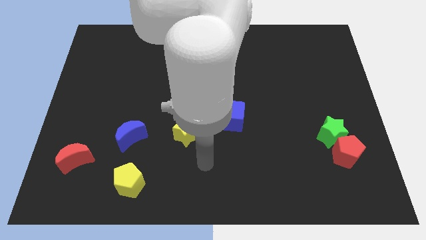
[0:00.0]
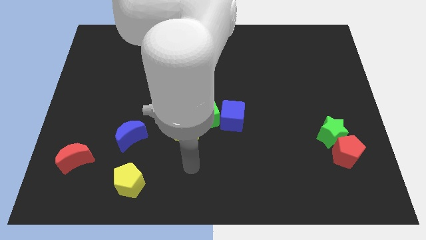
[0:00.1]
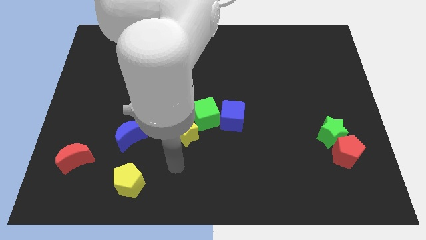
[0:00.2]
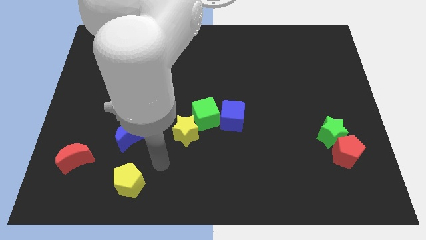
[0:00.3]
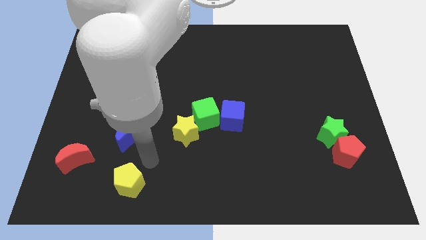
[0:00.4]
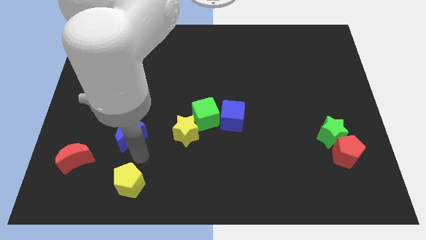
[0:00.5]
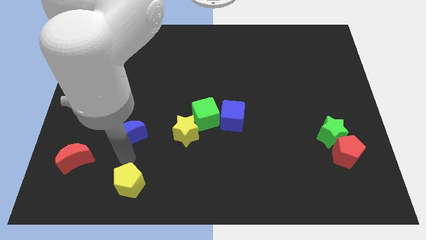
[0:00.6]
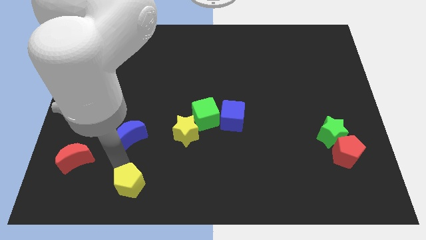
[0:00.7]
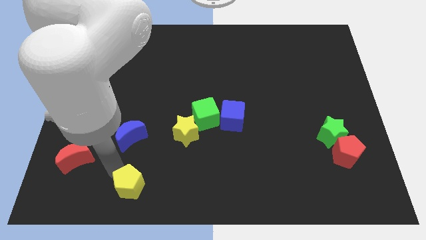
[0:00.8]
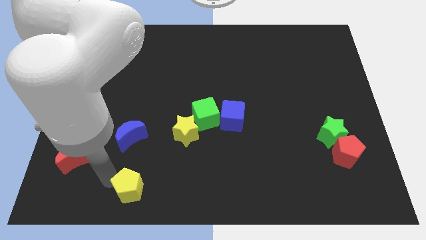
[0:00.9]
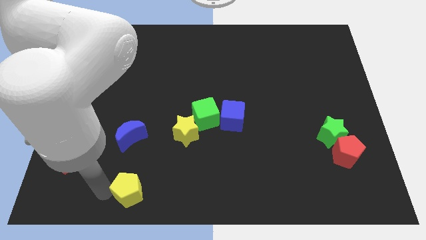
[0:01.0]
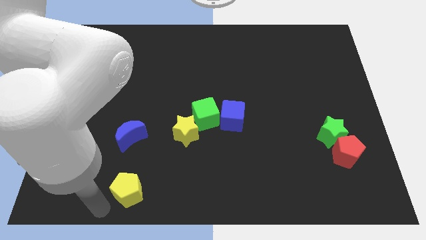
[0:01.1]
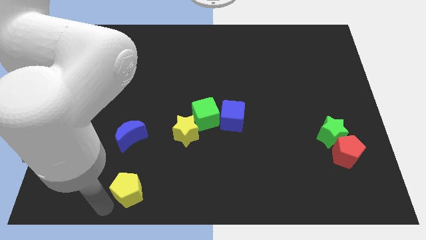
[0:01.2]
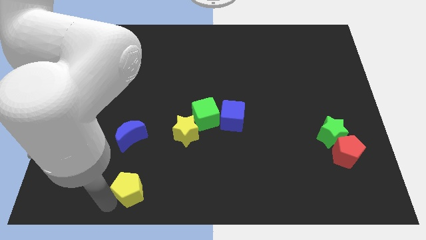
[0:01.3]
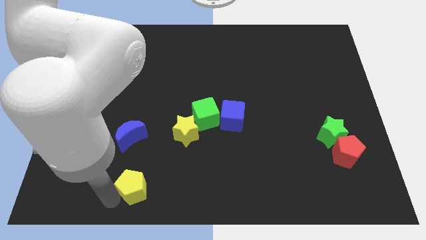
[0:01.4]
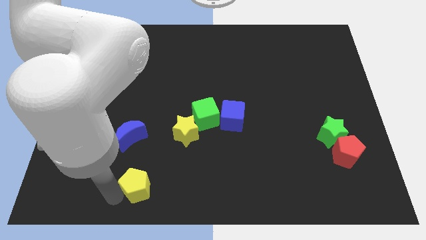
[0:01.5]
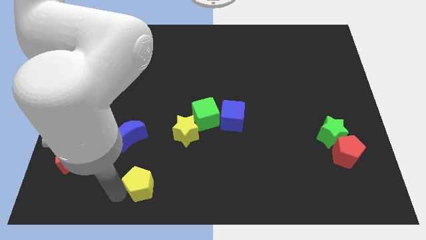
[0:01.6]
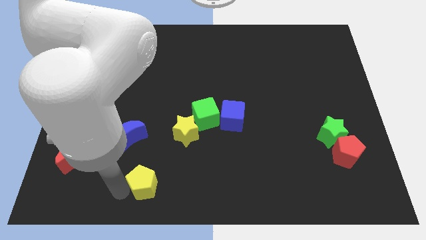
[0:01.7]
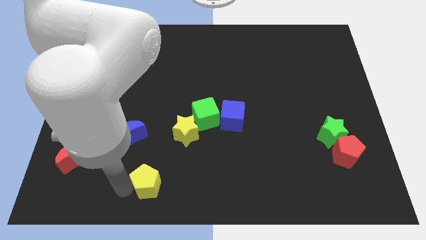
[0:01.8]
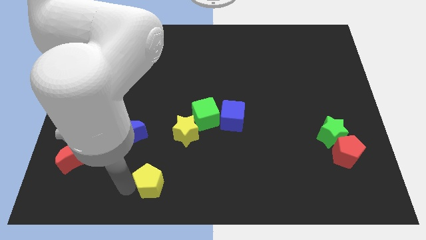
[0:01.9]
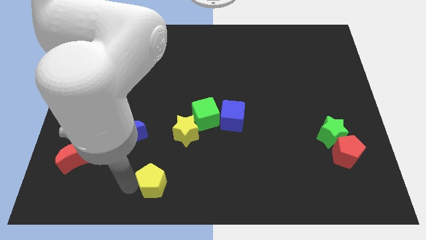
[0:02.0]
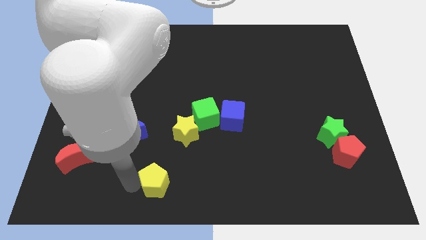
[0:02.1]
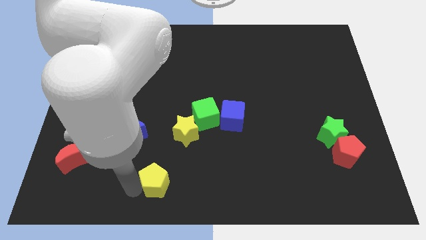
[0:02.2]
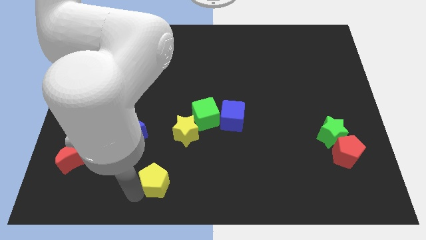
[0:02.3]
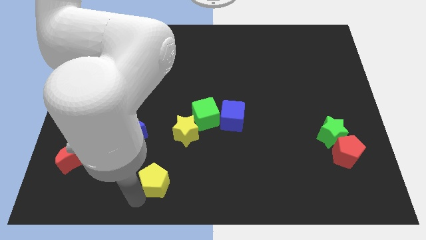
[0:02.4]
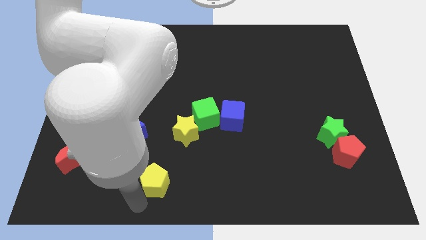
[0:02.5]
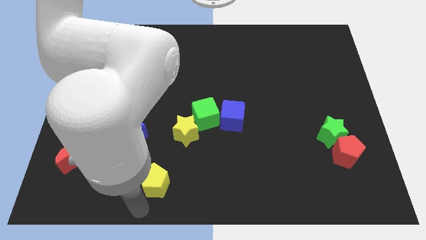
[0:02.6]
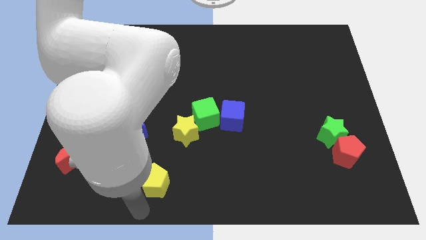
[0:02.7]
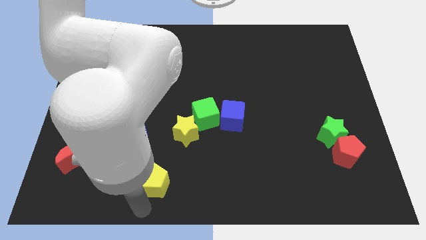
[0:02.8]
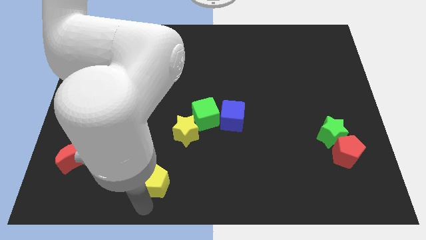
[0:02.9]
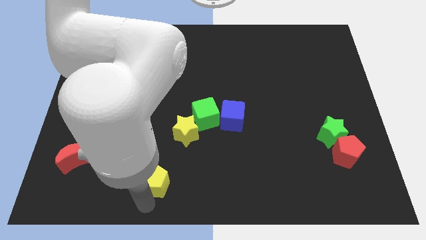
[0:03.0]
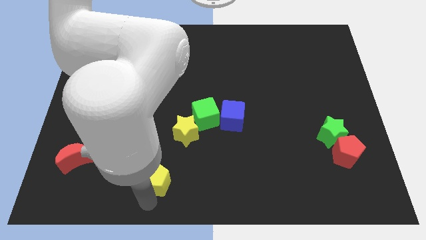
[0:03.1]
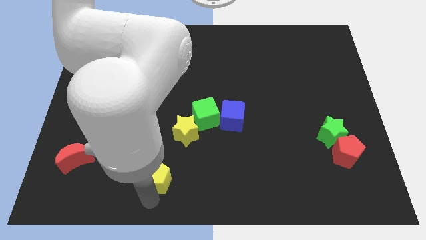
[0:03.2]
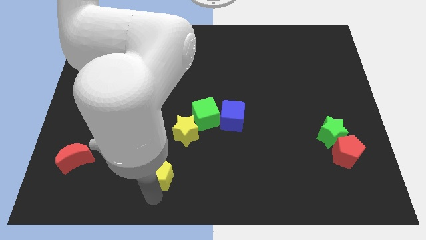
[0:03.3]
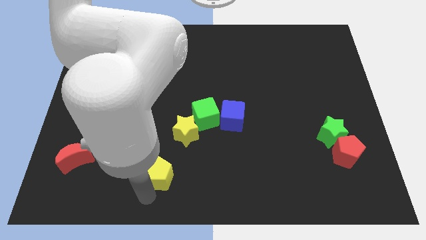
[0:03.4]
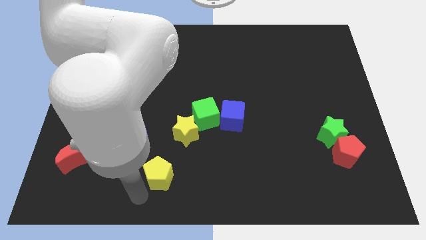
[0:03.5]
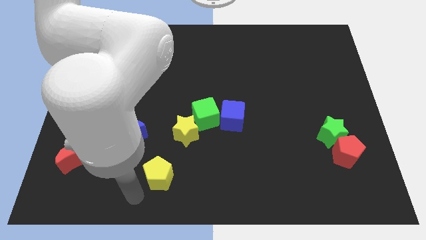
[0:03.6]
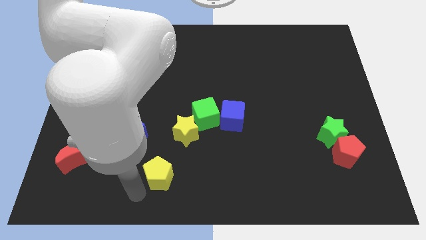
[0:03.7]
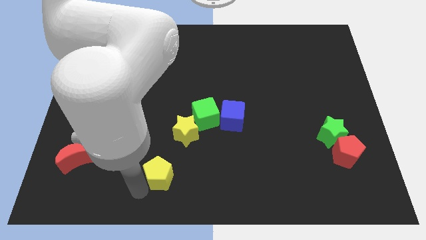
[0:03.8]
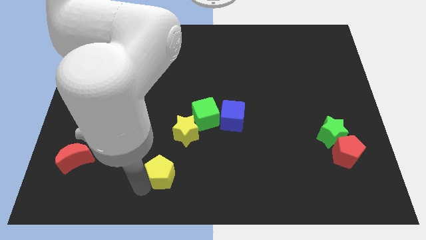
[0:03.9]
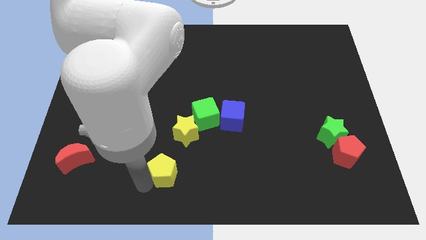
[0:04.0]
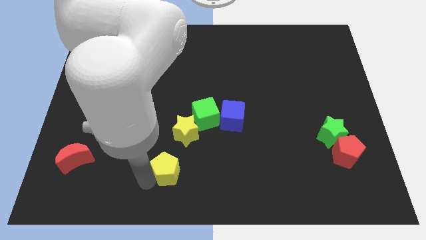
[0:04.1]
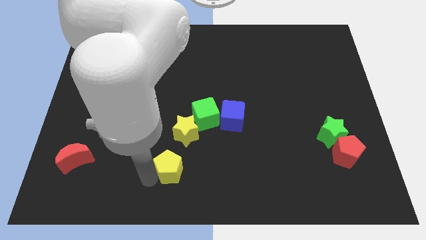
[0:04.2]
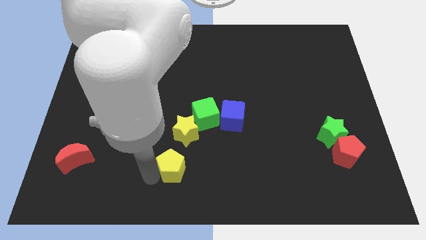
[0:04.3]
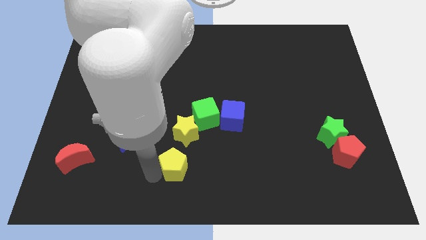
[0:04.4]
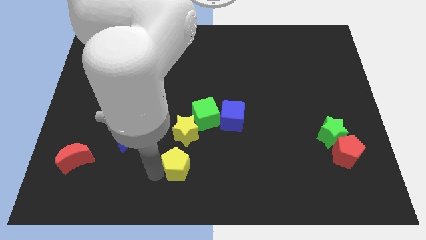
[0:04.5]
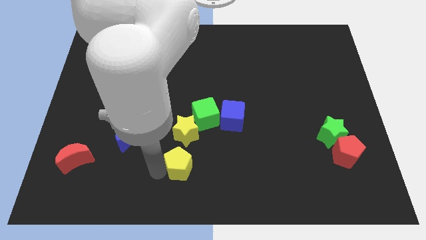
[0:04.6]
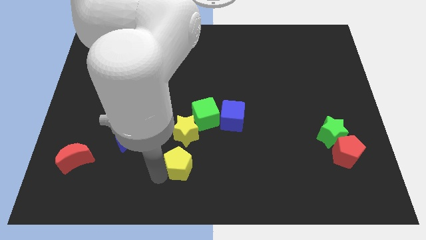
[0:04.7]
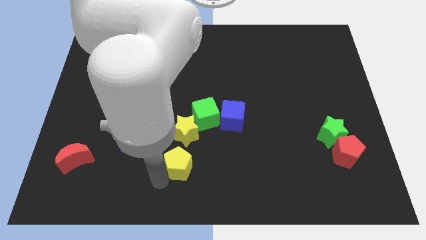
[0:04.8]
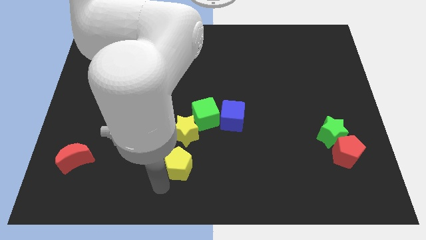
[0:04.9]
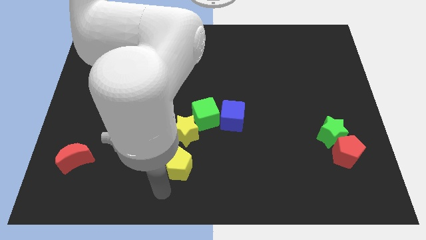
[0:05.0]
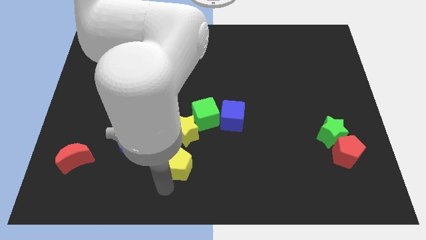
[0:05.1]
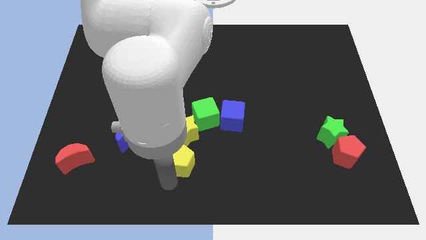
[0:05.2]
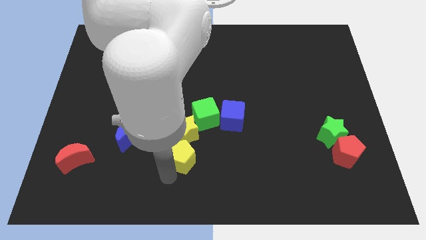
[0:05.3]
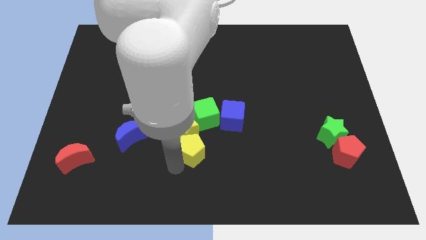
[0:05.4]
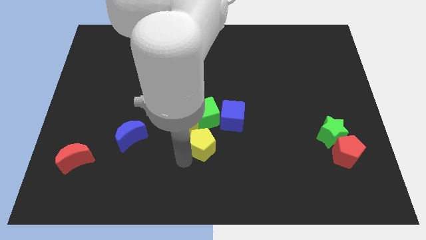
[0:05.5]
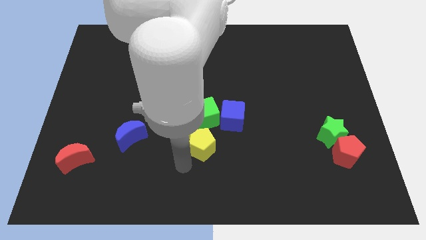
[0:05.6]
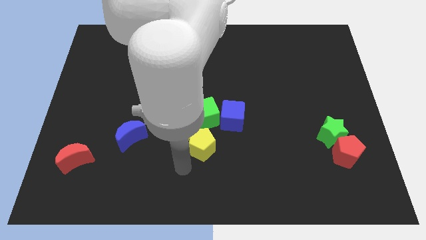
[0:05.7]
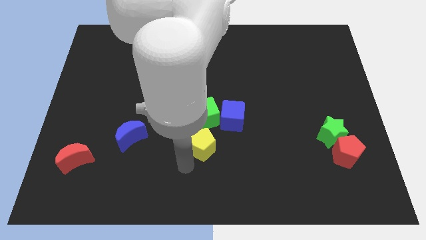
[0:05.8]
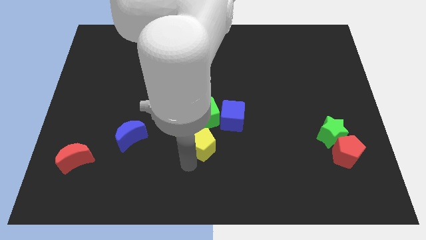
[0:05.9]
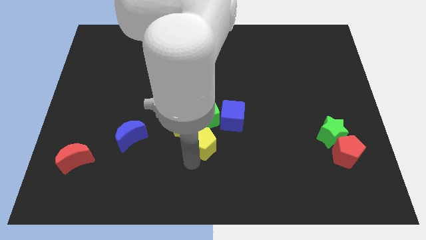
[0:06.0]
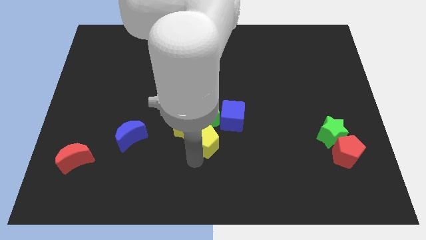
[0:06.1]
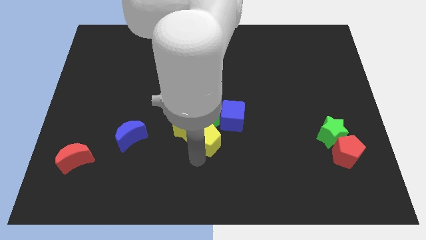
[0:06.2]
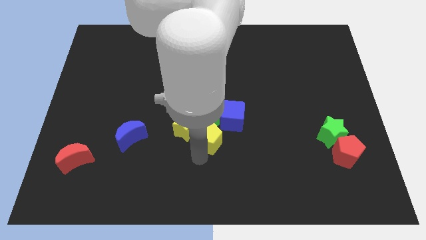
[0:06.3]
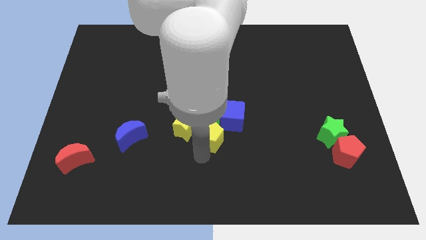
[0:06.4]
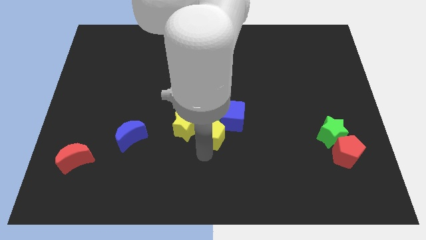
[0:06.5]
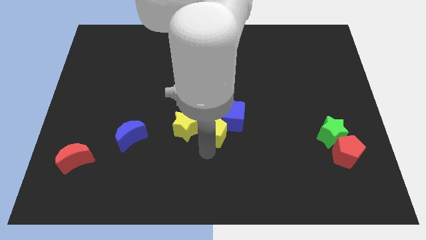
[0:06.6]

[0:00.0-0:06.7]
move the yellow pentagon close to the blue cube

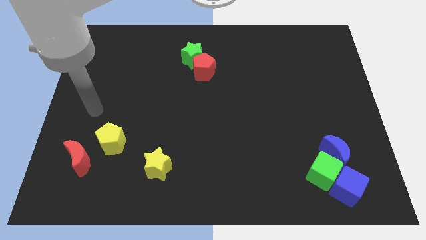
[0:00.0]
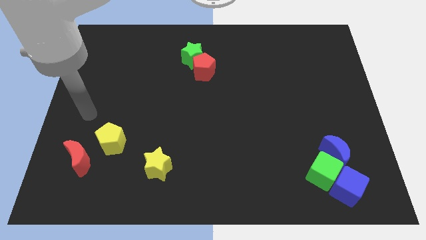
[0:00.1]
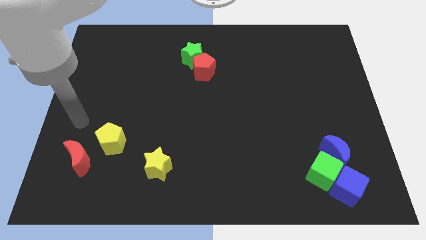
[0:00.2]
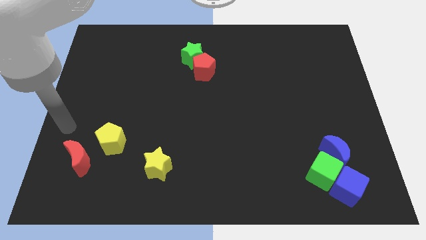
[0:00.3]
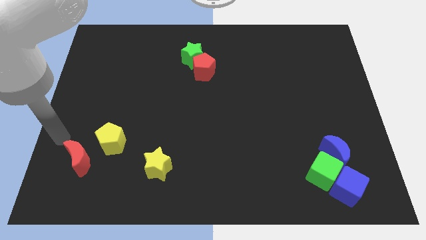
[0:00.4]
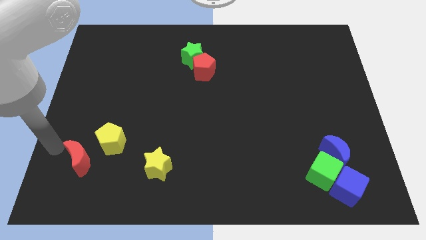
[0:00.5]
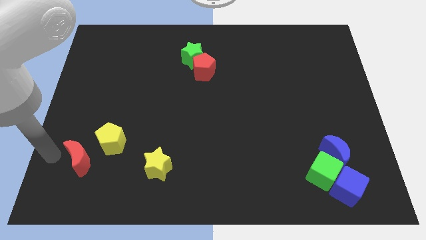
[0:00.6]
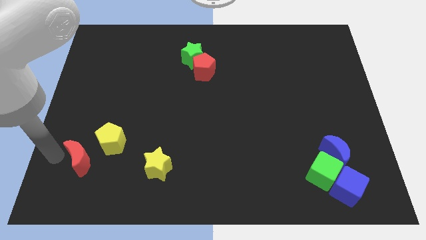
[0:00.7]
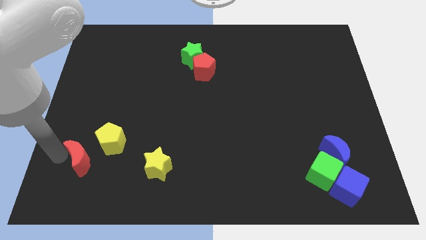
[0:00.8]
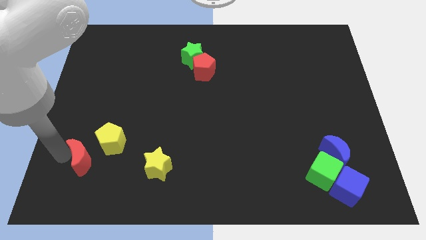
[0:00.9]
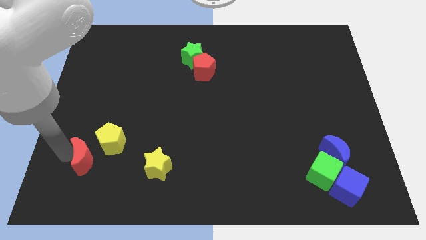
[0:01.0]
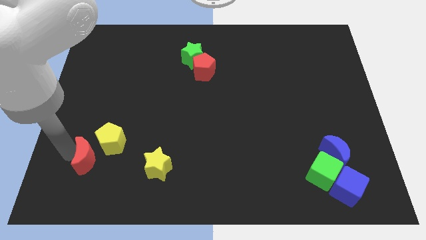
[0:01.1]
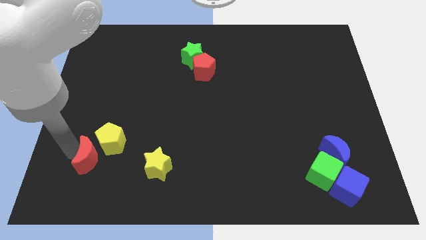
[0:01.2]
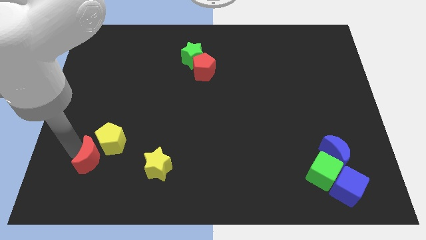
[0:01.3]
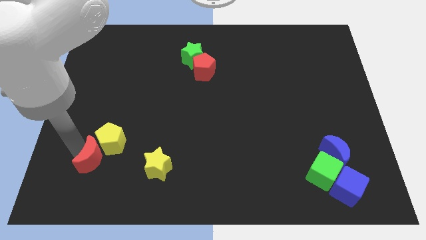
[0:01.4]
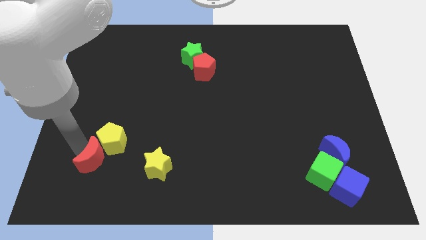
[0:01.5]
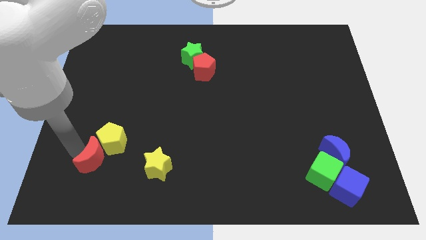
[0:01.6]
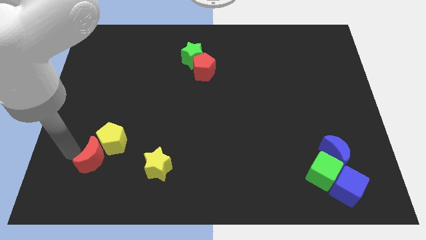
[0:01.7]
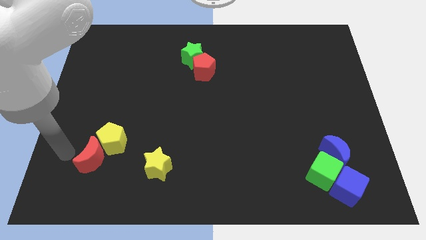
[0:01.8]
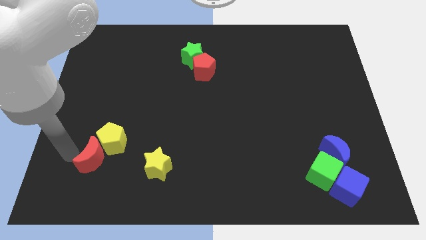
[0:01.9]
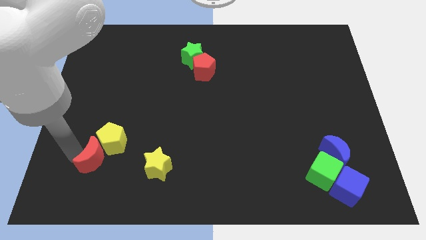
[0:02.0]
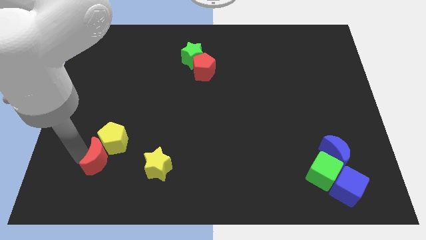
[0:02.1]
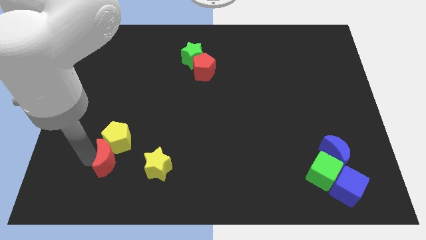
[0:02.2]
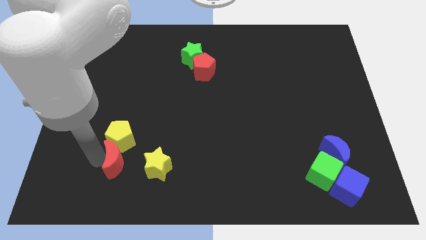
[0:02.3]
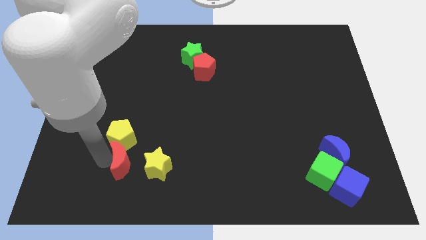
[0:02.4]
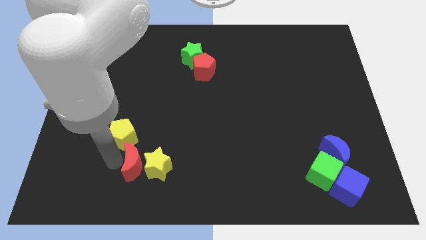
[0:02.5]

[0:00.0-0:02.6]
push the red moon to the yellow star
